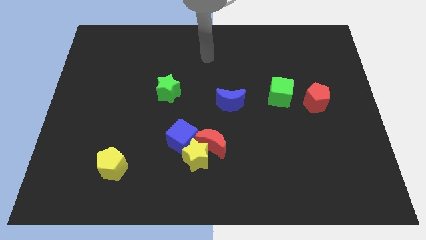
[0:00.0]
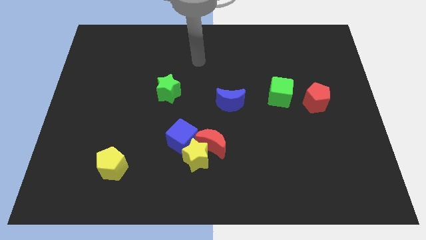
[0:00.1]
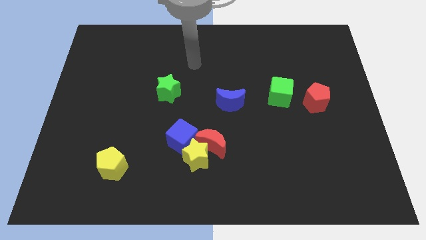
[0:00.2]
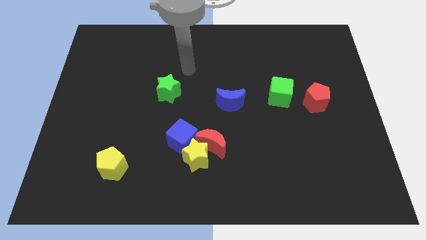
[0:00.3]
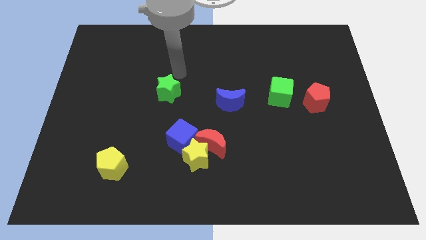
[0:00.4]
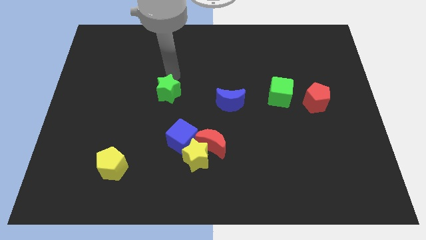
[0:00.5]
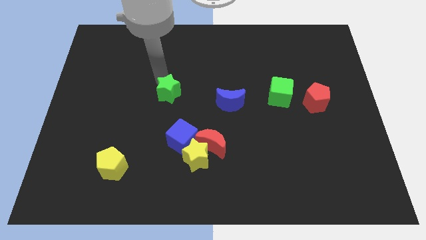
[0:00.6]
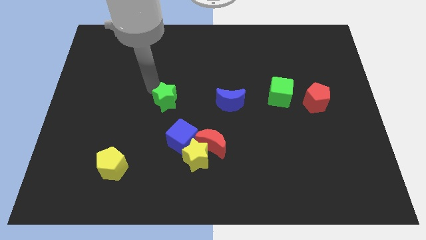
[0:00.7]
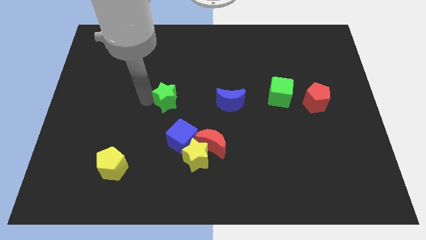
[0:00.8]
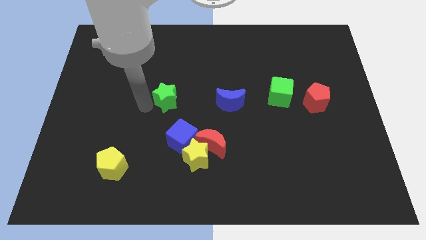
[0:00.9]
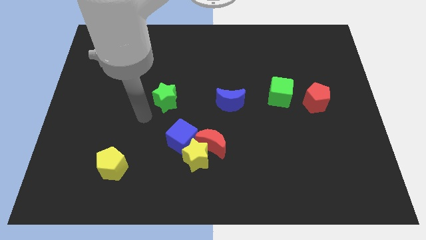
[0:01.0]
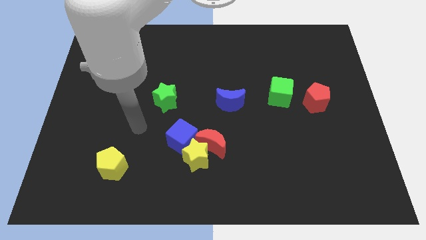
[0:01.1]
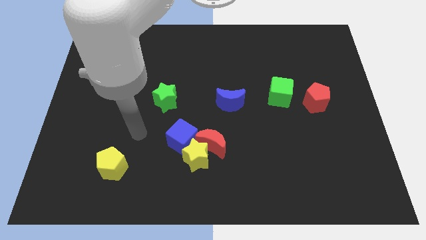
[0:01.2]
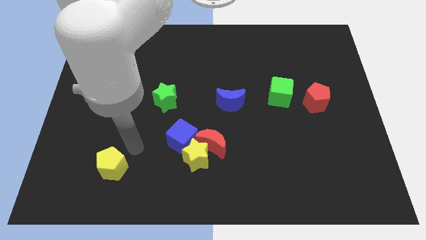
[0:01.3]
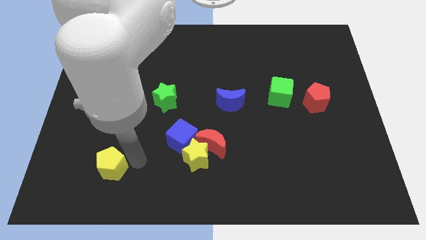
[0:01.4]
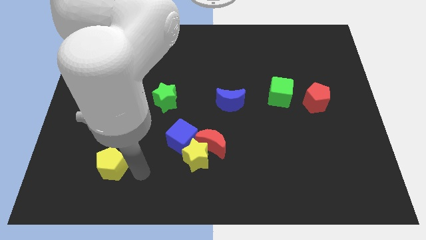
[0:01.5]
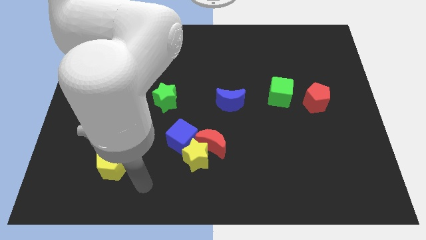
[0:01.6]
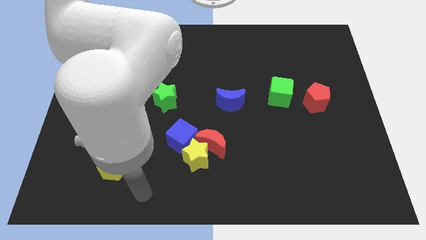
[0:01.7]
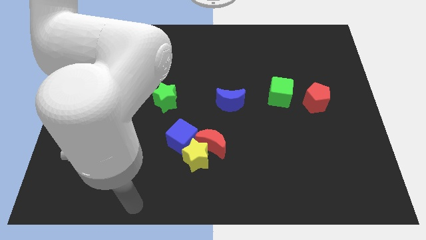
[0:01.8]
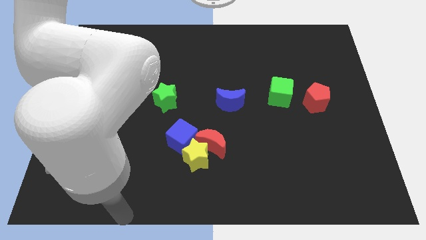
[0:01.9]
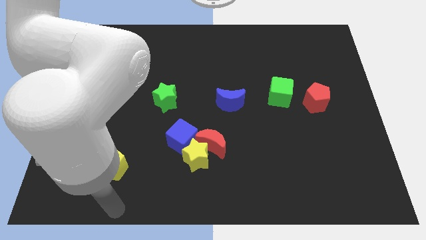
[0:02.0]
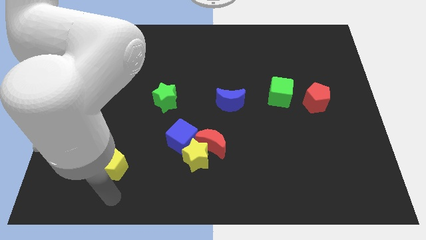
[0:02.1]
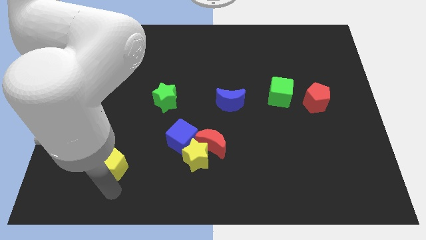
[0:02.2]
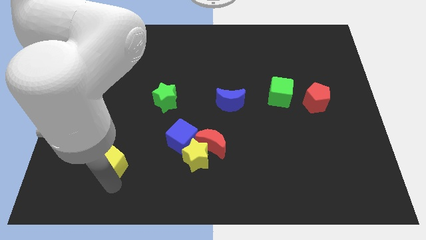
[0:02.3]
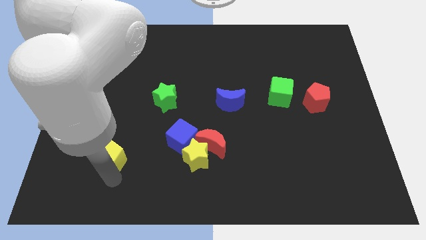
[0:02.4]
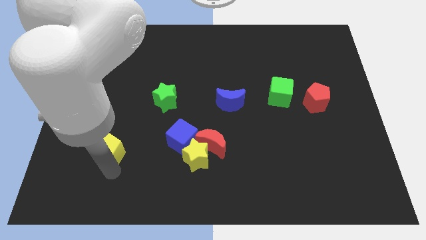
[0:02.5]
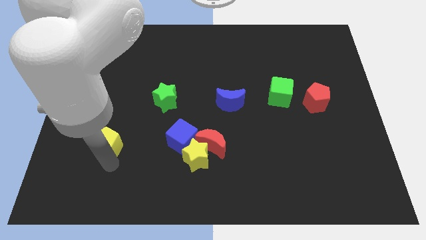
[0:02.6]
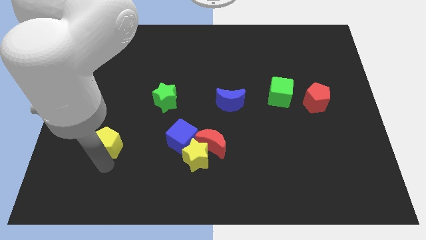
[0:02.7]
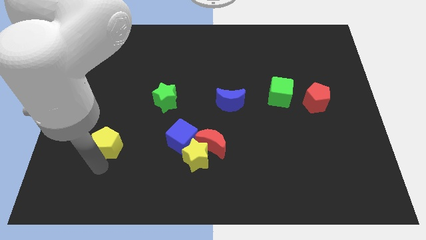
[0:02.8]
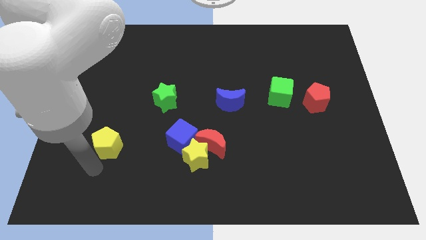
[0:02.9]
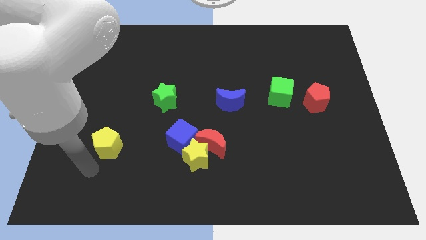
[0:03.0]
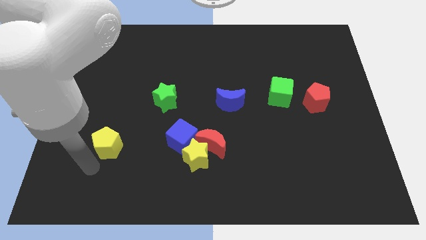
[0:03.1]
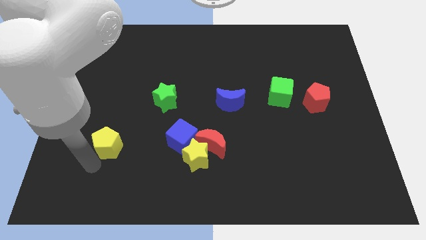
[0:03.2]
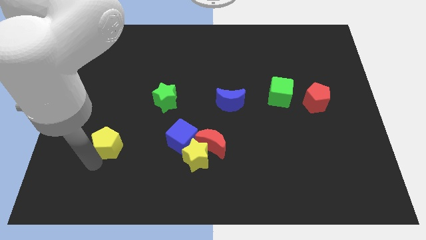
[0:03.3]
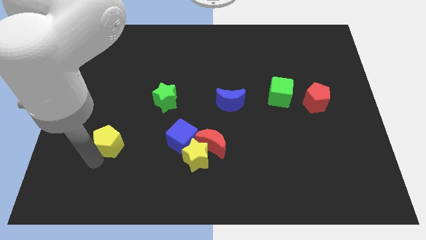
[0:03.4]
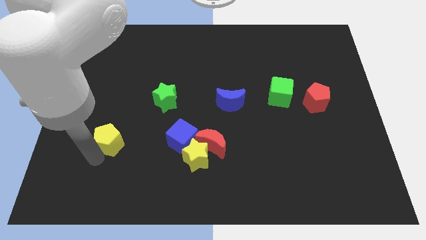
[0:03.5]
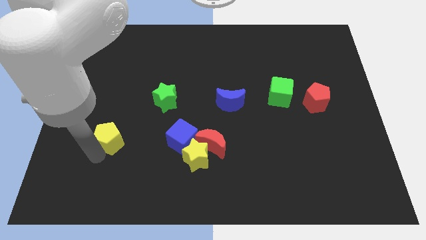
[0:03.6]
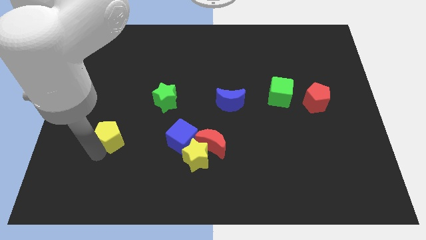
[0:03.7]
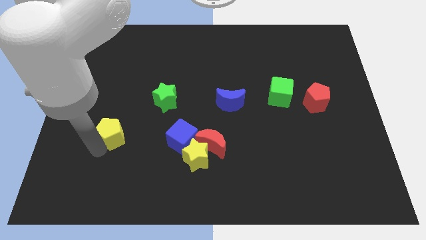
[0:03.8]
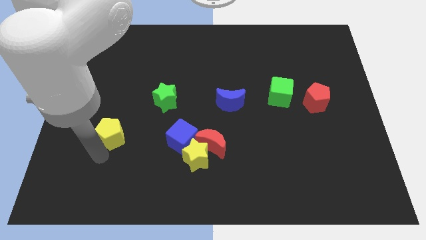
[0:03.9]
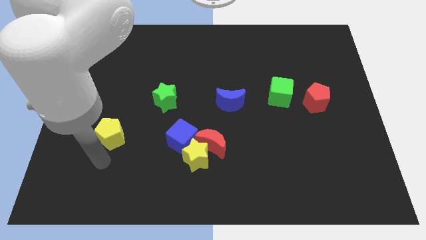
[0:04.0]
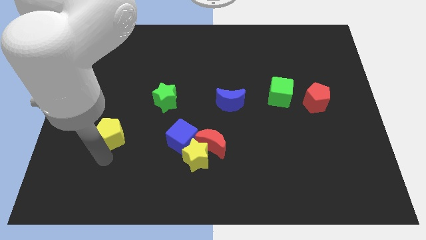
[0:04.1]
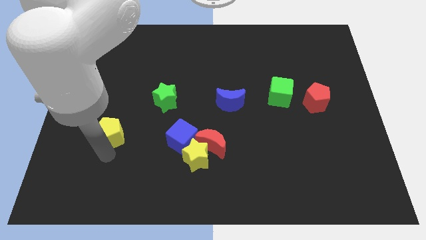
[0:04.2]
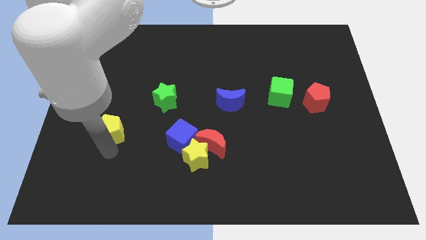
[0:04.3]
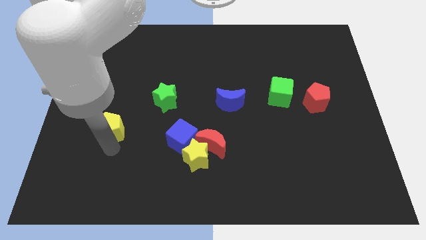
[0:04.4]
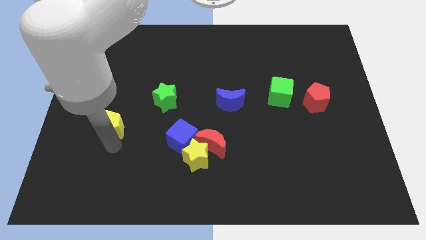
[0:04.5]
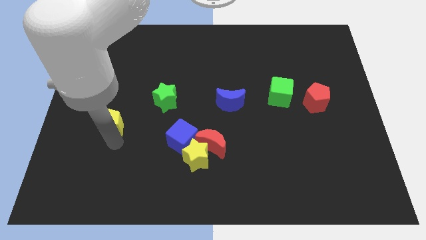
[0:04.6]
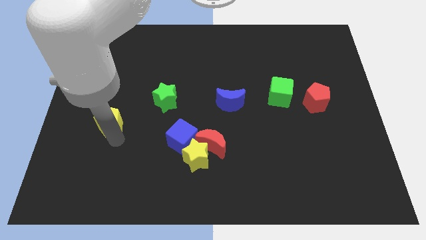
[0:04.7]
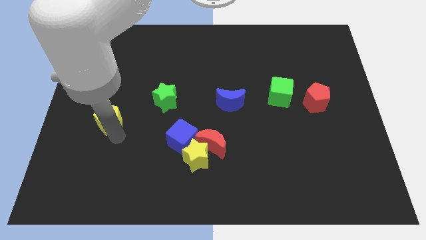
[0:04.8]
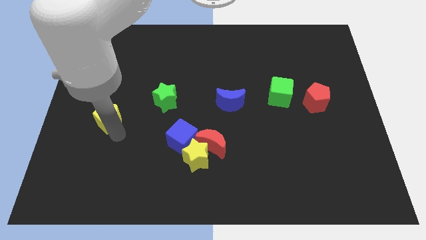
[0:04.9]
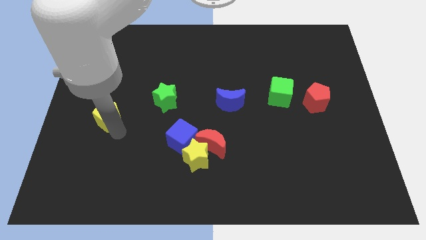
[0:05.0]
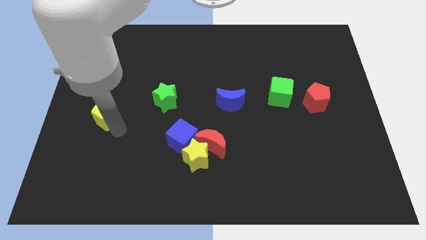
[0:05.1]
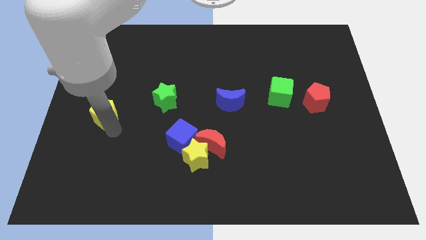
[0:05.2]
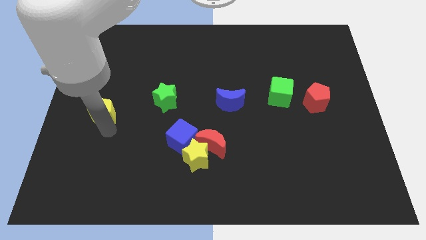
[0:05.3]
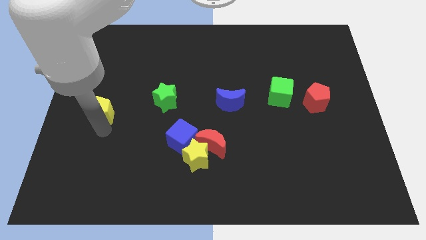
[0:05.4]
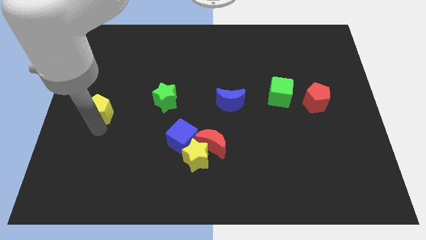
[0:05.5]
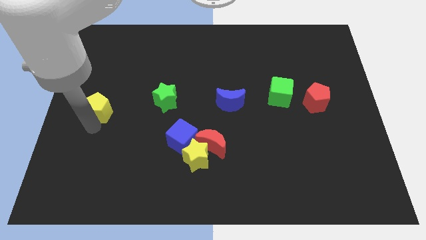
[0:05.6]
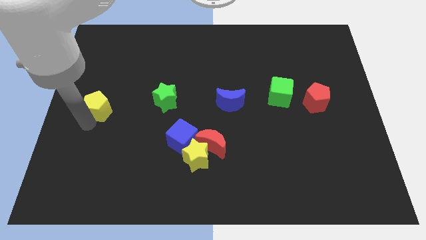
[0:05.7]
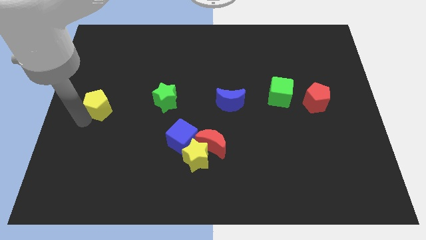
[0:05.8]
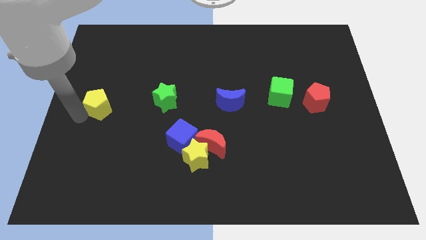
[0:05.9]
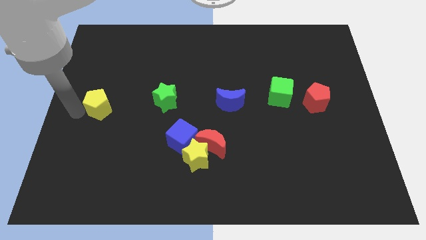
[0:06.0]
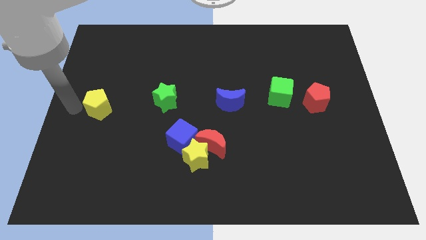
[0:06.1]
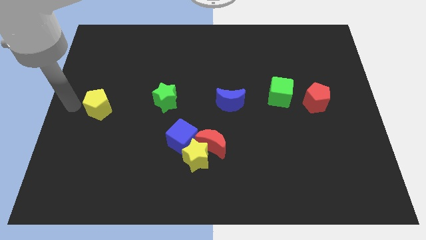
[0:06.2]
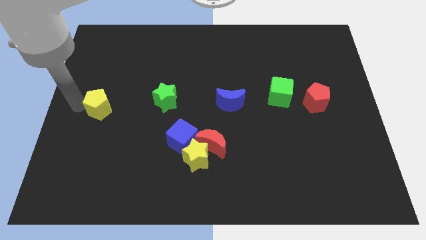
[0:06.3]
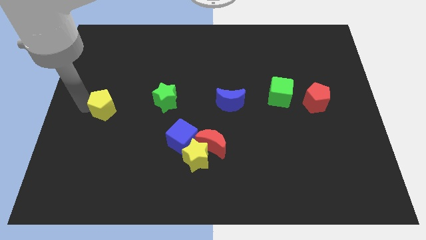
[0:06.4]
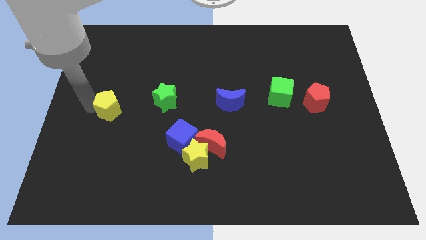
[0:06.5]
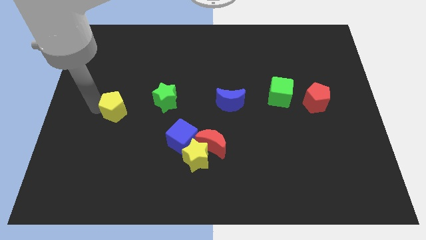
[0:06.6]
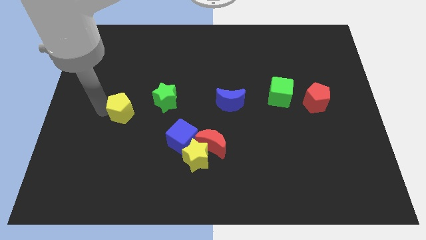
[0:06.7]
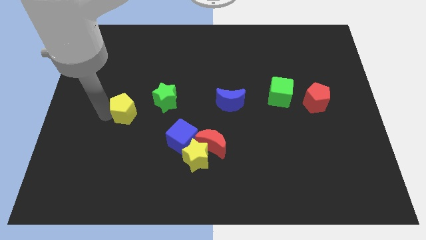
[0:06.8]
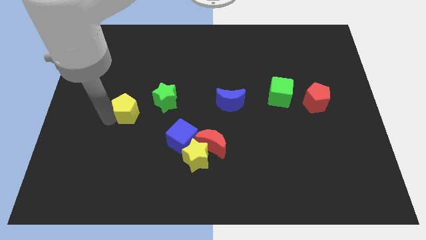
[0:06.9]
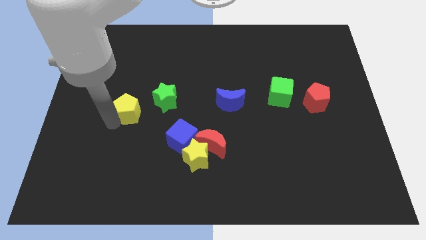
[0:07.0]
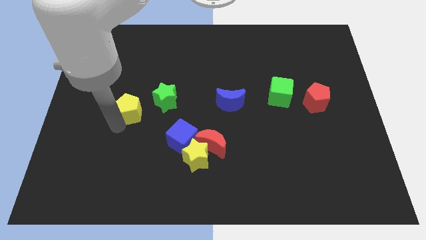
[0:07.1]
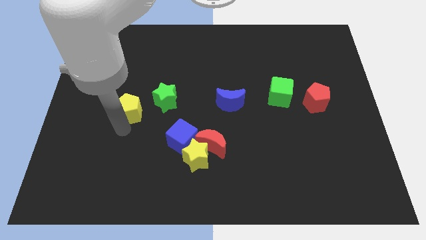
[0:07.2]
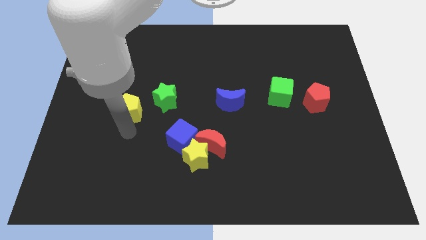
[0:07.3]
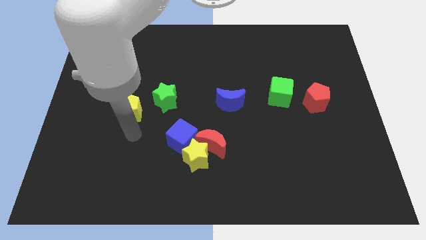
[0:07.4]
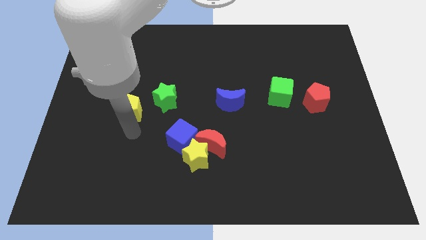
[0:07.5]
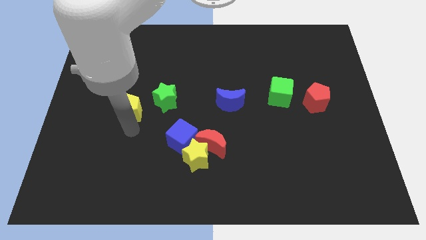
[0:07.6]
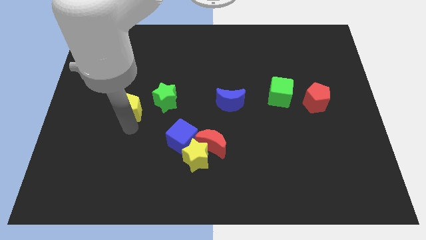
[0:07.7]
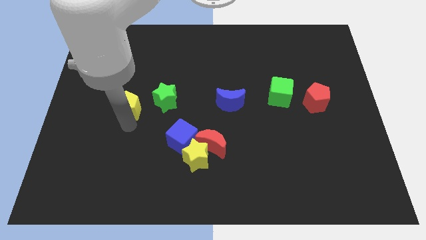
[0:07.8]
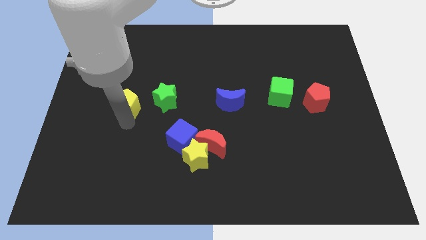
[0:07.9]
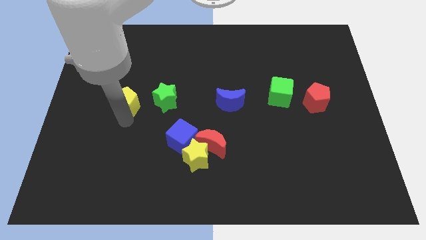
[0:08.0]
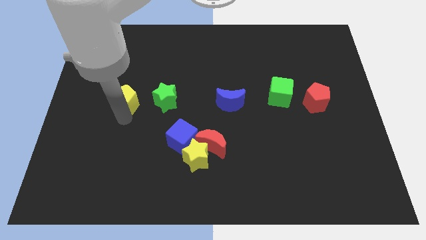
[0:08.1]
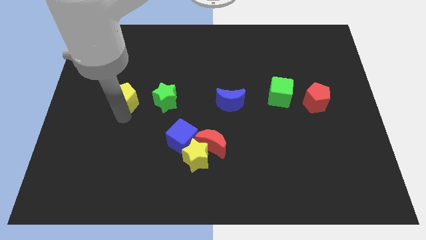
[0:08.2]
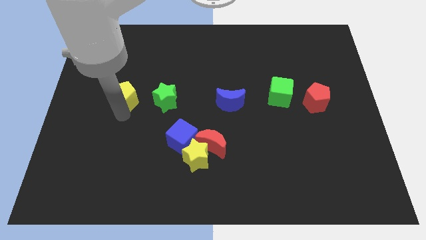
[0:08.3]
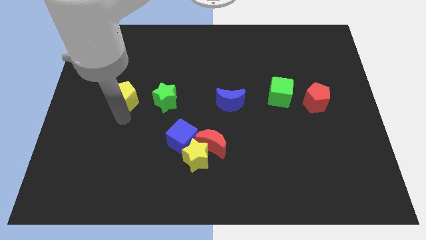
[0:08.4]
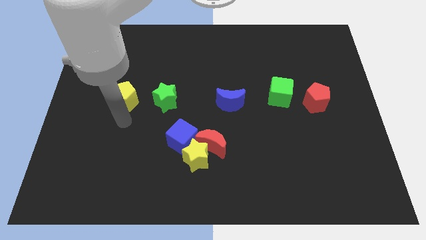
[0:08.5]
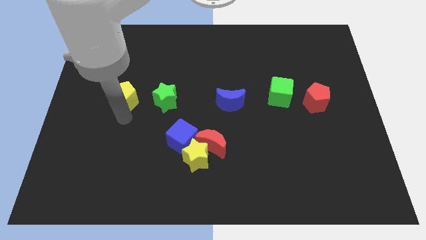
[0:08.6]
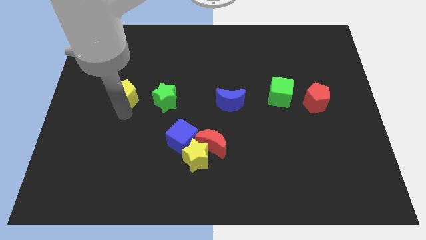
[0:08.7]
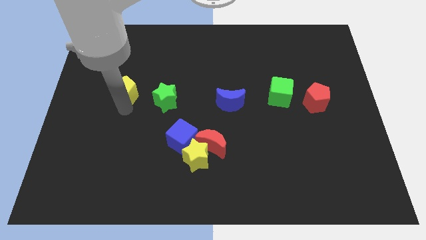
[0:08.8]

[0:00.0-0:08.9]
slide the yellow pentagon upwards

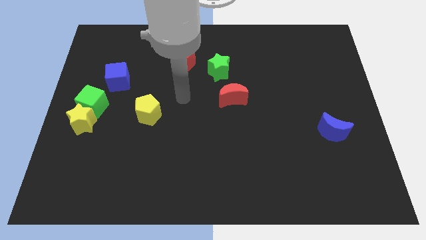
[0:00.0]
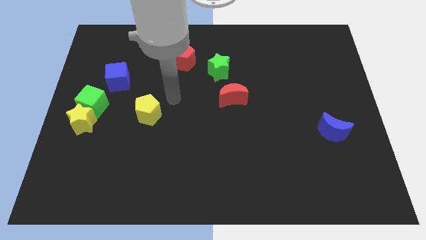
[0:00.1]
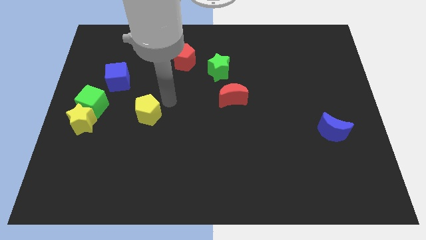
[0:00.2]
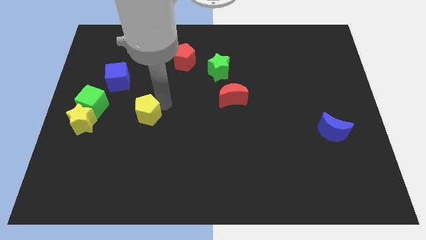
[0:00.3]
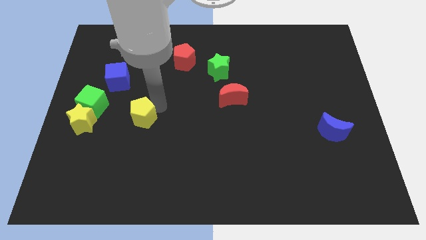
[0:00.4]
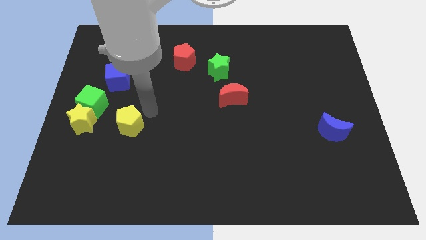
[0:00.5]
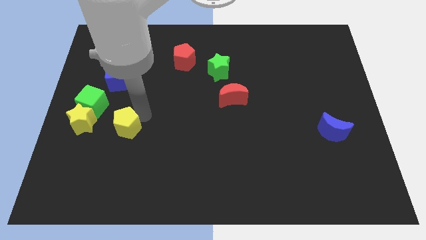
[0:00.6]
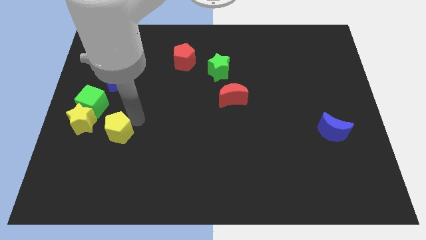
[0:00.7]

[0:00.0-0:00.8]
slightly move the yellow pentagon down and to the left
